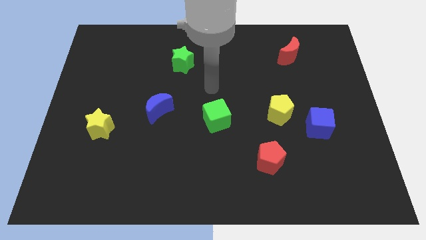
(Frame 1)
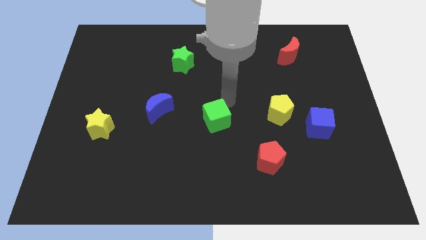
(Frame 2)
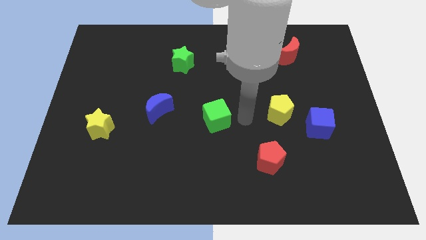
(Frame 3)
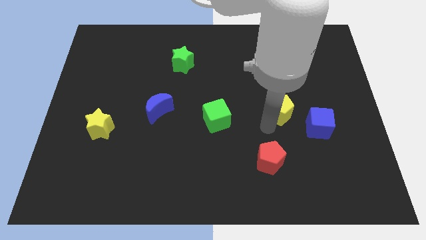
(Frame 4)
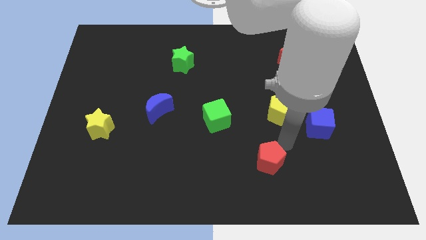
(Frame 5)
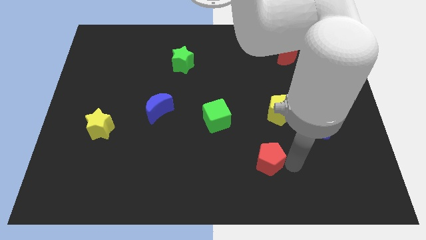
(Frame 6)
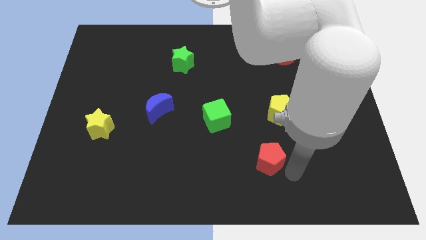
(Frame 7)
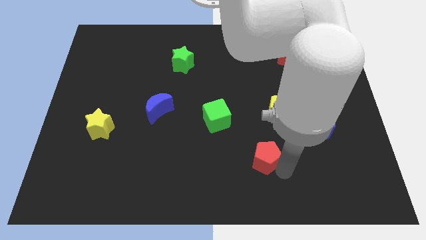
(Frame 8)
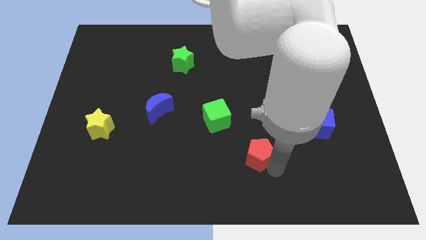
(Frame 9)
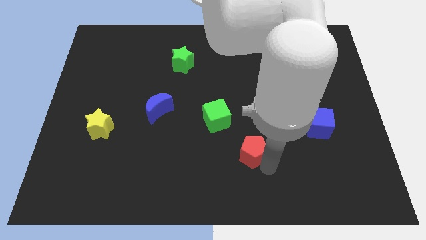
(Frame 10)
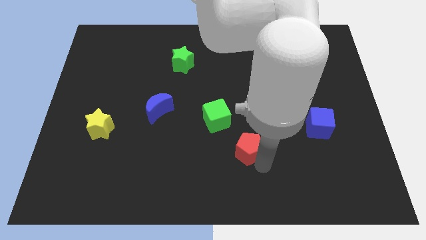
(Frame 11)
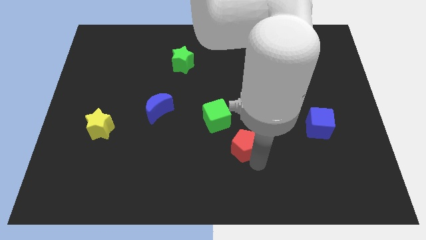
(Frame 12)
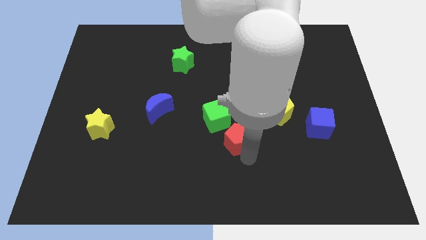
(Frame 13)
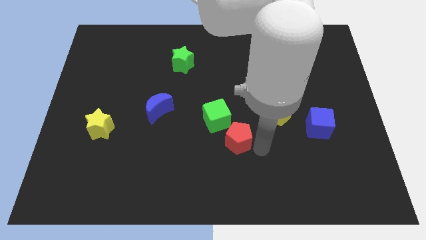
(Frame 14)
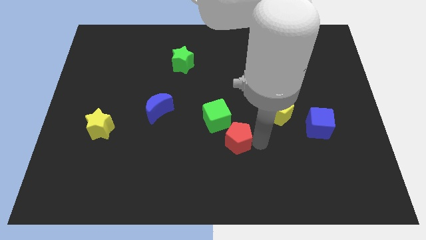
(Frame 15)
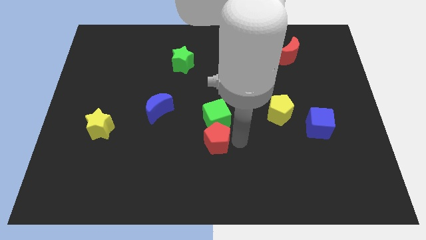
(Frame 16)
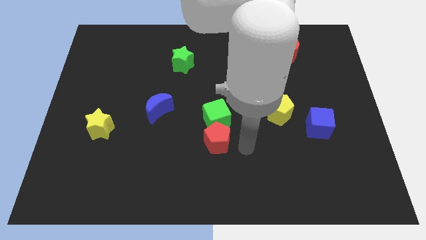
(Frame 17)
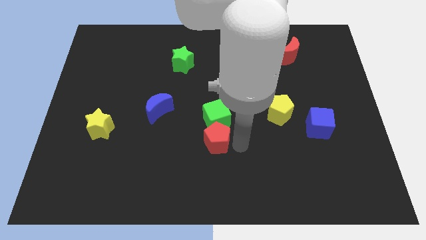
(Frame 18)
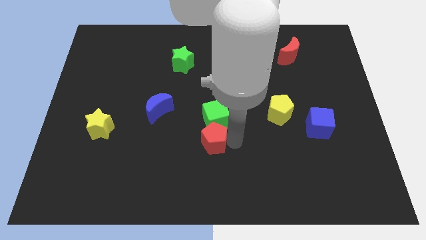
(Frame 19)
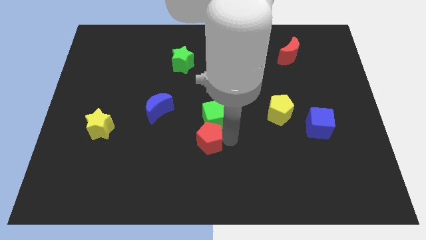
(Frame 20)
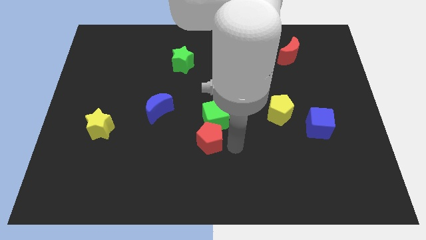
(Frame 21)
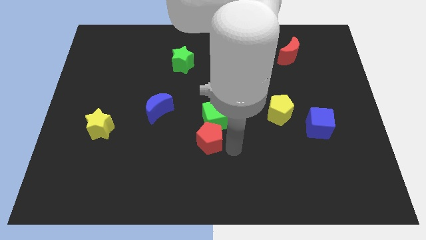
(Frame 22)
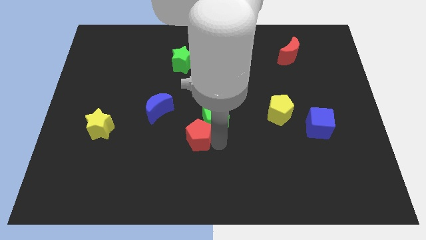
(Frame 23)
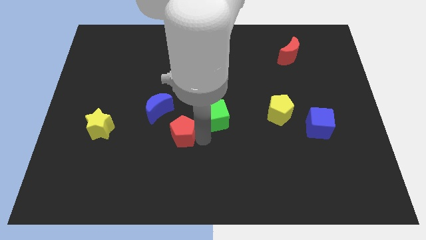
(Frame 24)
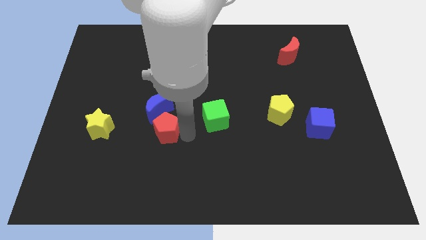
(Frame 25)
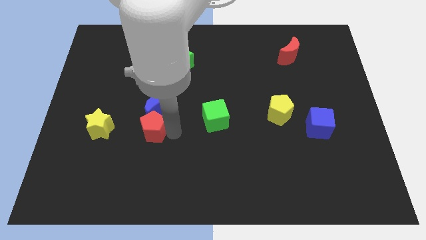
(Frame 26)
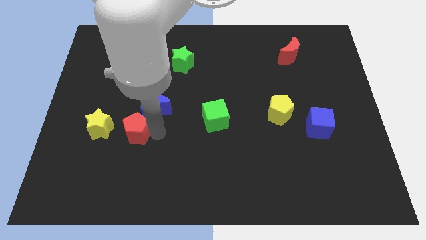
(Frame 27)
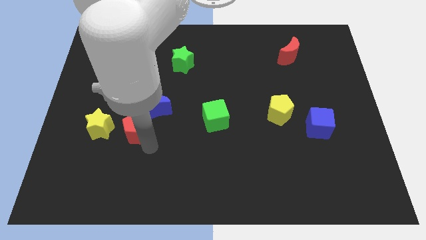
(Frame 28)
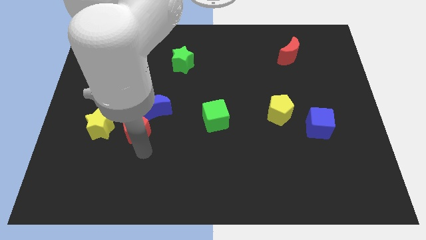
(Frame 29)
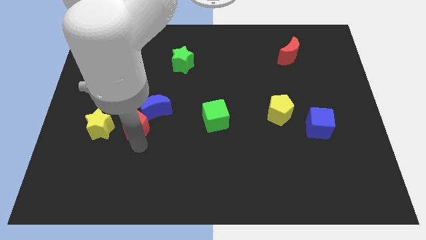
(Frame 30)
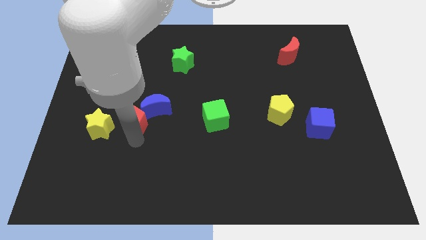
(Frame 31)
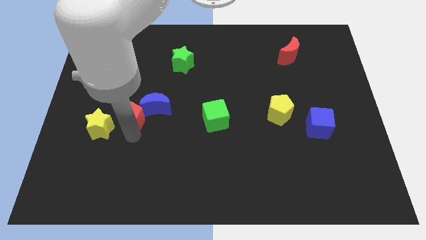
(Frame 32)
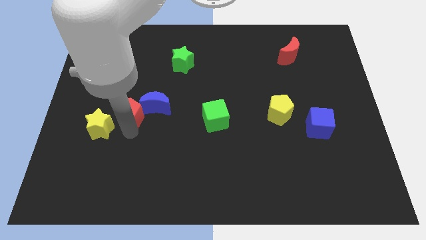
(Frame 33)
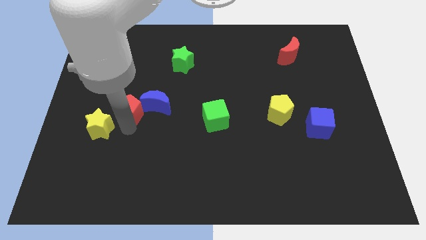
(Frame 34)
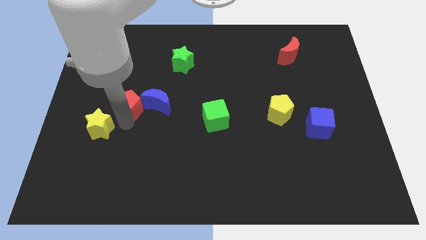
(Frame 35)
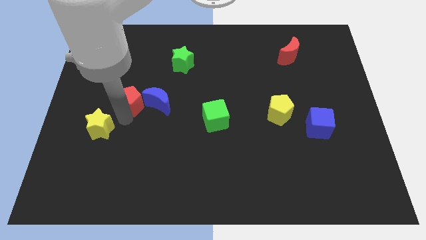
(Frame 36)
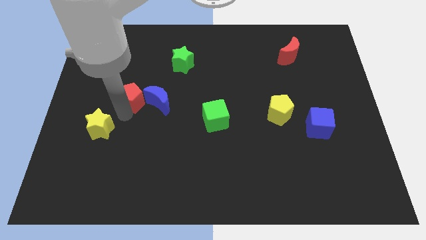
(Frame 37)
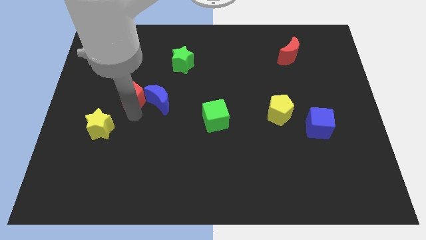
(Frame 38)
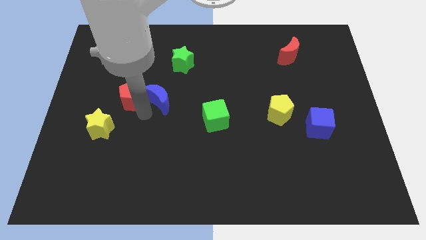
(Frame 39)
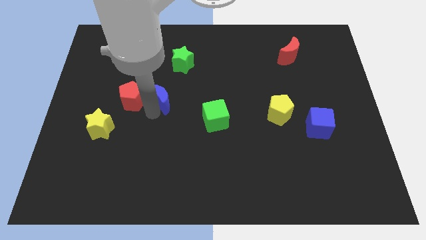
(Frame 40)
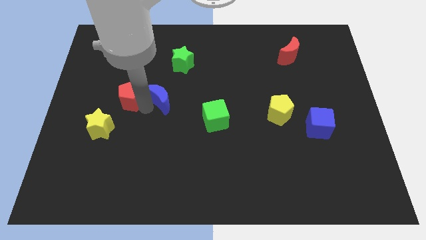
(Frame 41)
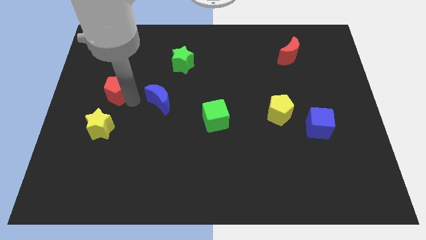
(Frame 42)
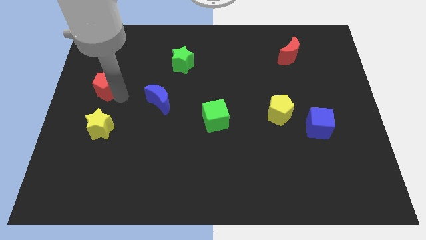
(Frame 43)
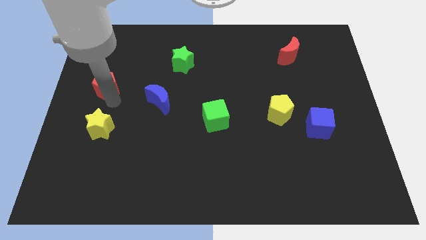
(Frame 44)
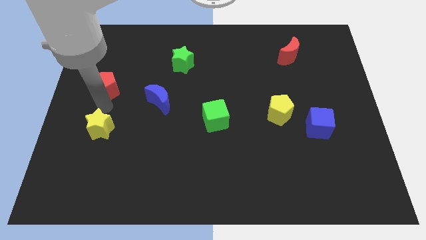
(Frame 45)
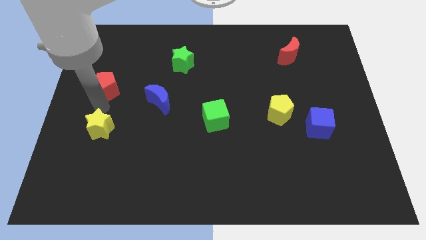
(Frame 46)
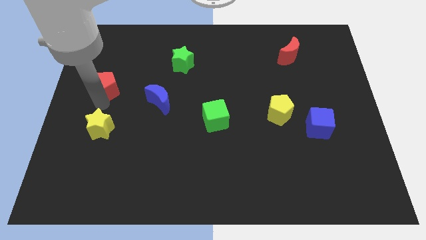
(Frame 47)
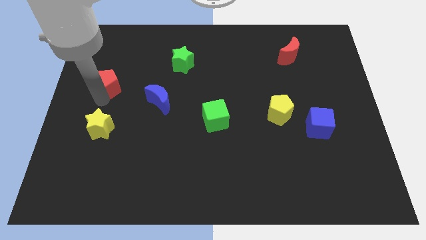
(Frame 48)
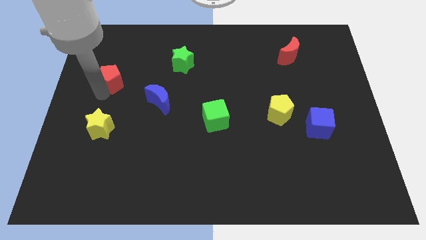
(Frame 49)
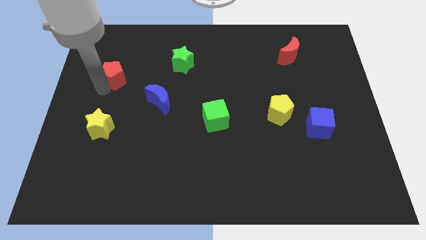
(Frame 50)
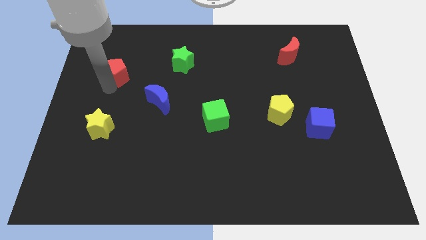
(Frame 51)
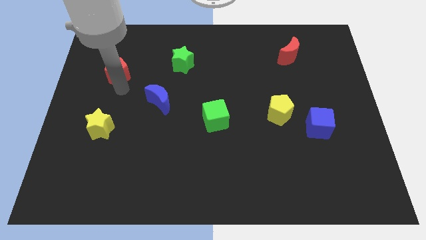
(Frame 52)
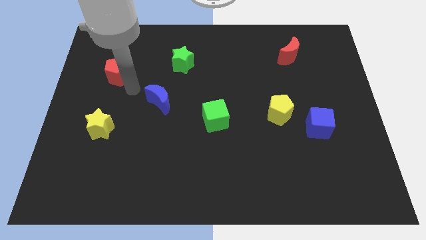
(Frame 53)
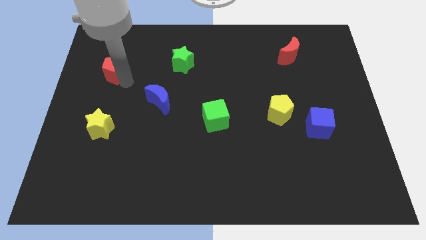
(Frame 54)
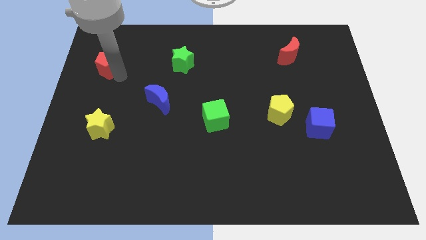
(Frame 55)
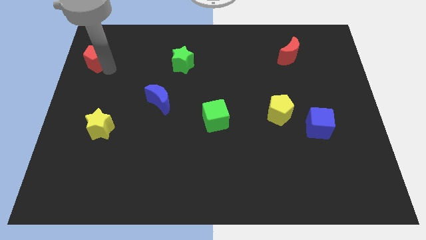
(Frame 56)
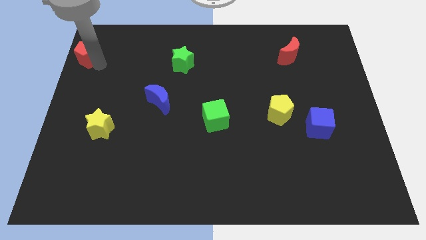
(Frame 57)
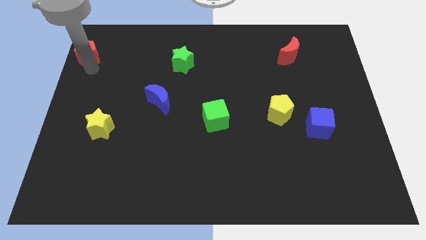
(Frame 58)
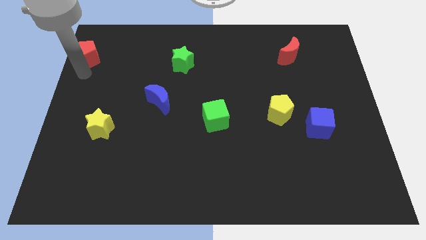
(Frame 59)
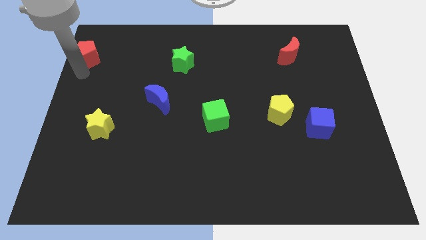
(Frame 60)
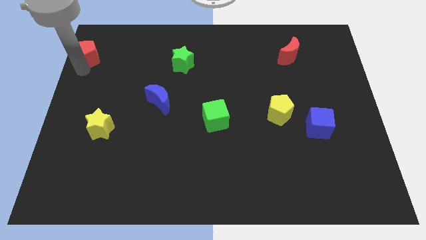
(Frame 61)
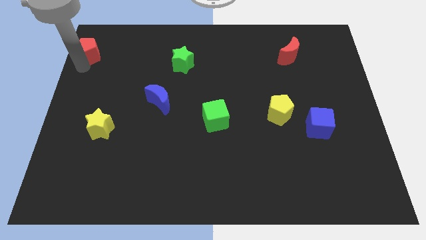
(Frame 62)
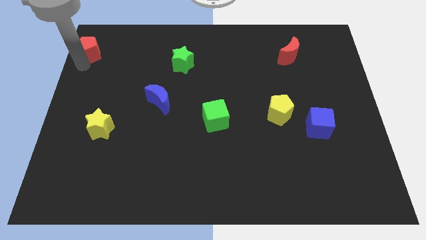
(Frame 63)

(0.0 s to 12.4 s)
slide the red pentagon to the top left corner

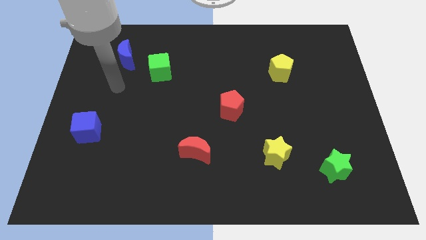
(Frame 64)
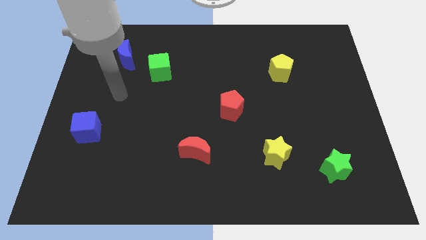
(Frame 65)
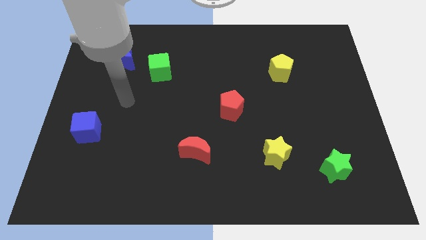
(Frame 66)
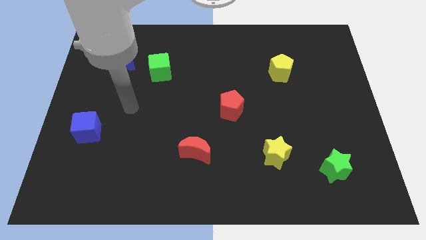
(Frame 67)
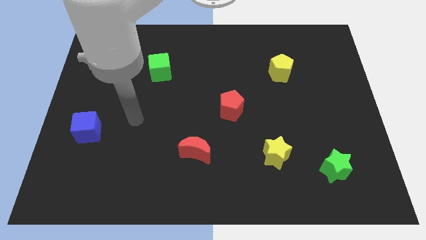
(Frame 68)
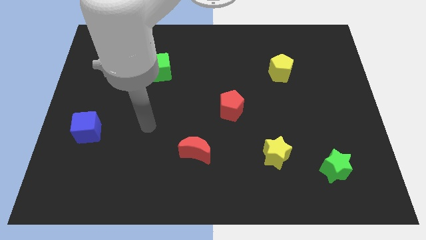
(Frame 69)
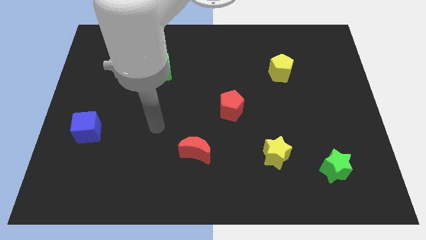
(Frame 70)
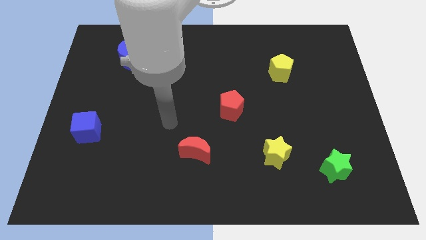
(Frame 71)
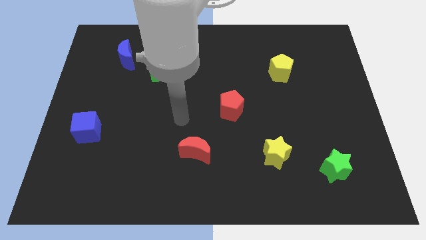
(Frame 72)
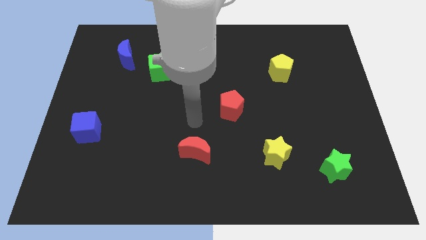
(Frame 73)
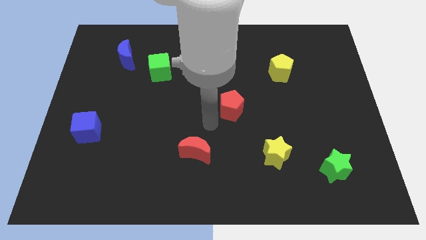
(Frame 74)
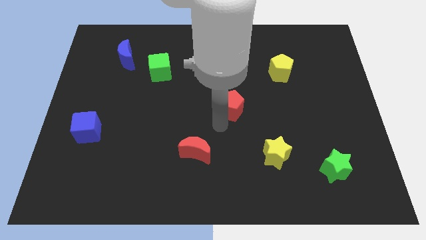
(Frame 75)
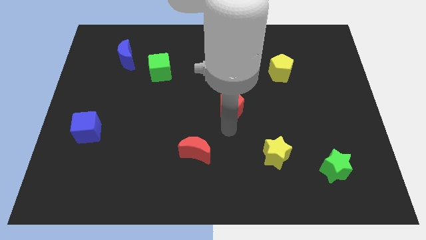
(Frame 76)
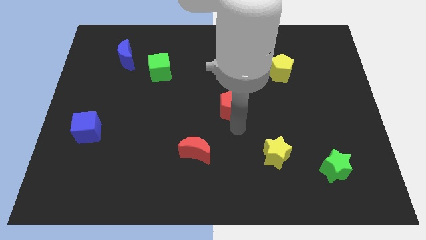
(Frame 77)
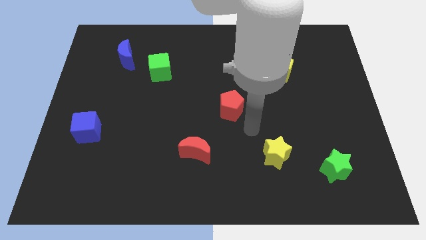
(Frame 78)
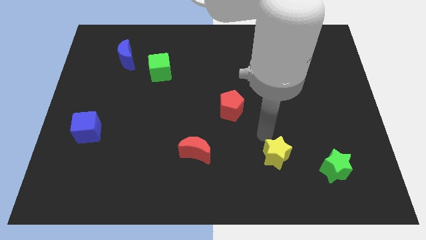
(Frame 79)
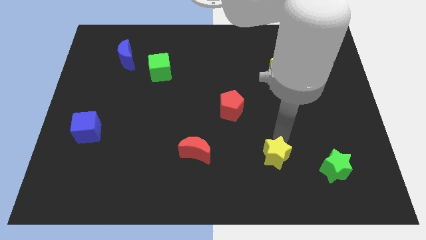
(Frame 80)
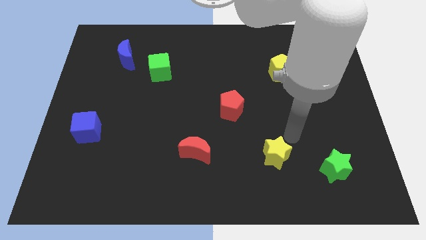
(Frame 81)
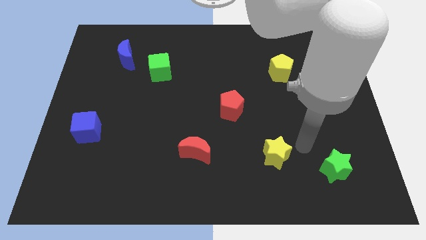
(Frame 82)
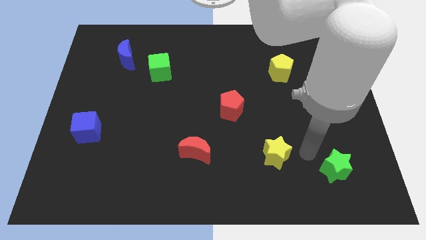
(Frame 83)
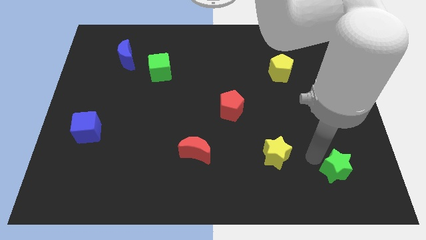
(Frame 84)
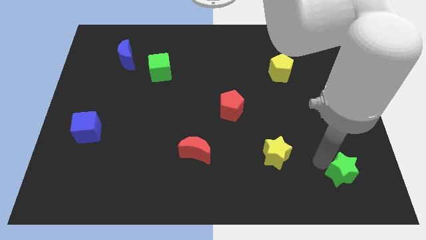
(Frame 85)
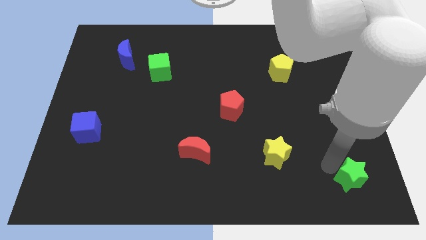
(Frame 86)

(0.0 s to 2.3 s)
push the green star to the bottom right corner
